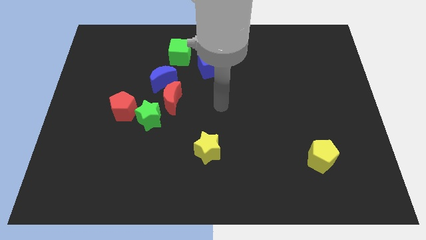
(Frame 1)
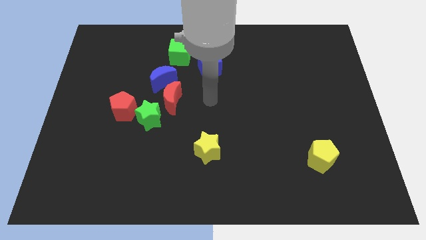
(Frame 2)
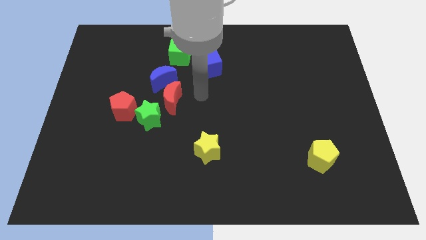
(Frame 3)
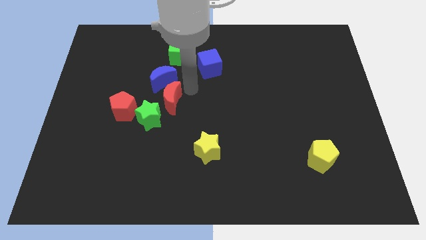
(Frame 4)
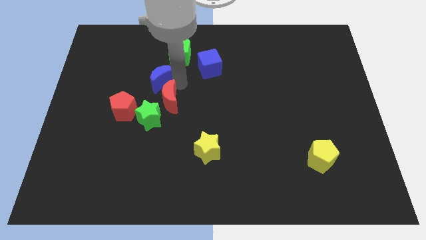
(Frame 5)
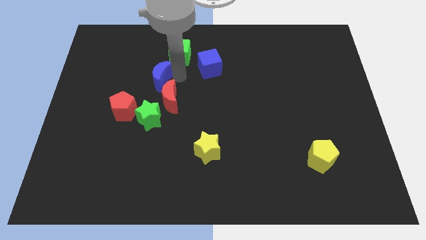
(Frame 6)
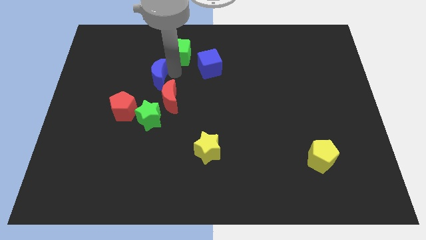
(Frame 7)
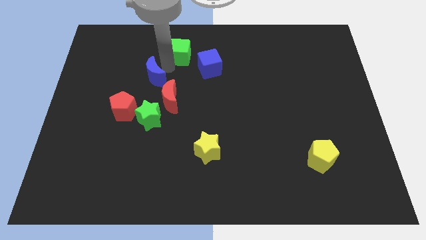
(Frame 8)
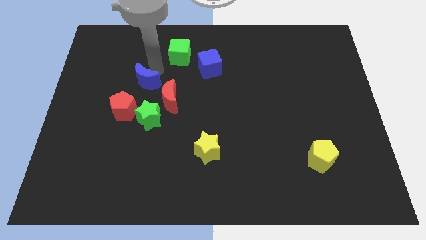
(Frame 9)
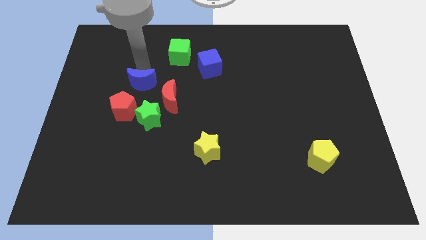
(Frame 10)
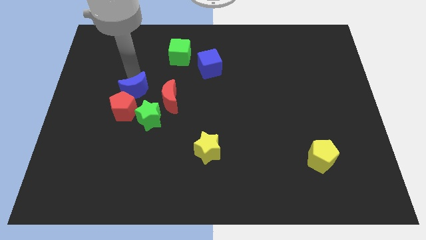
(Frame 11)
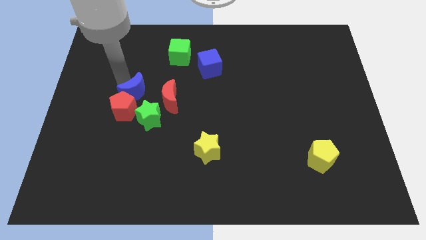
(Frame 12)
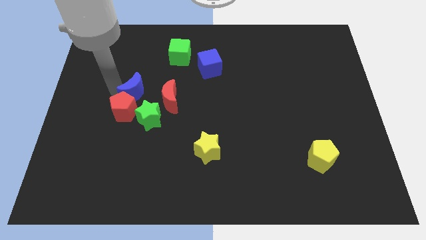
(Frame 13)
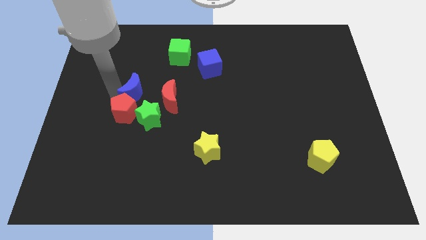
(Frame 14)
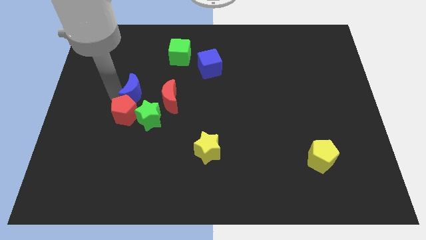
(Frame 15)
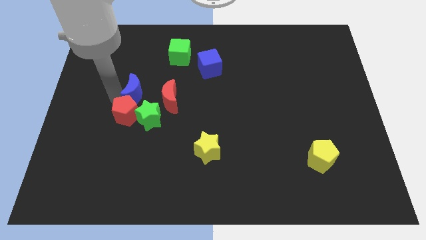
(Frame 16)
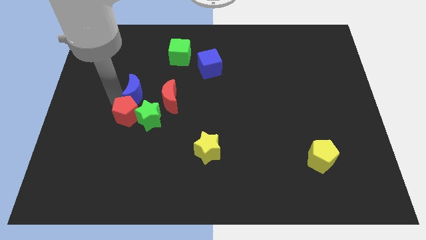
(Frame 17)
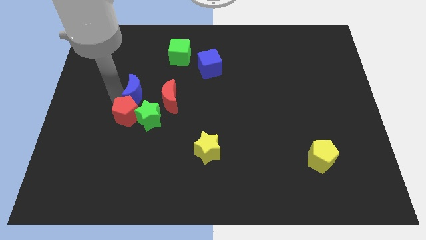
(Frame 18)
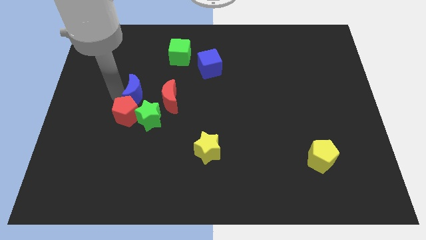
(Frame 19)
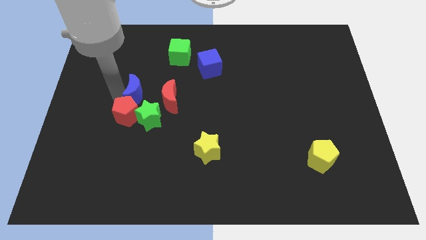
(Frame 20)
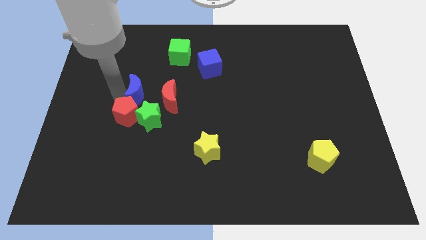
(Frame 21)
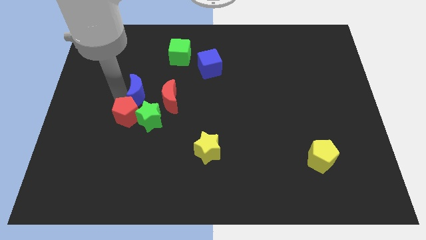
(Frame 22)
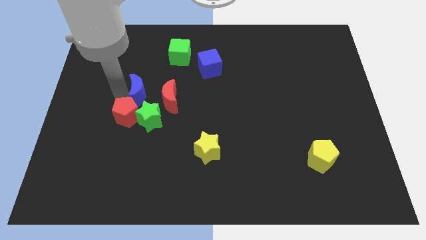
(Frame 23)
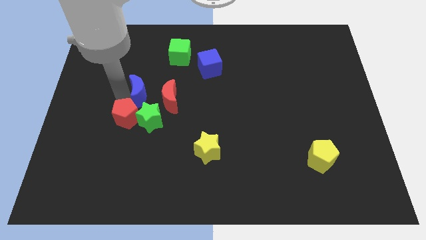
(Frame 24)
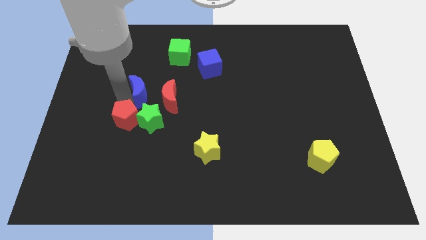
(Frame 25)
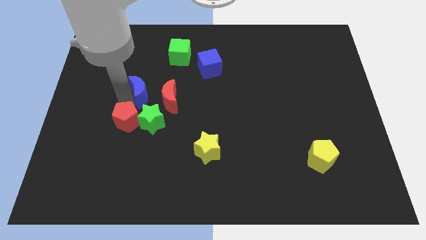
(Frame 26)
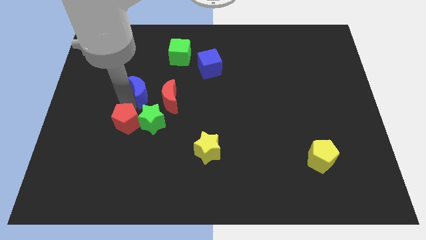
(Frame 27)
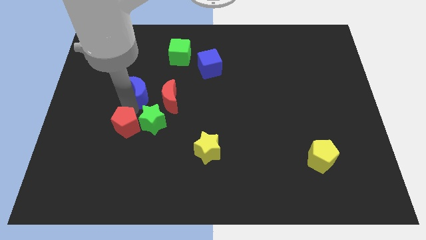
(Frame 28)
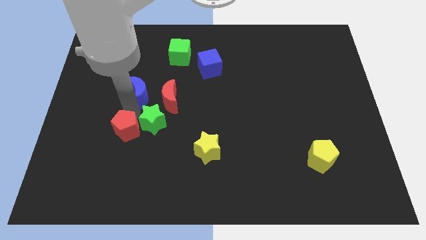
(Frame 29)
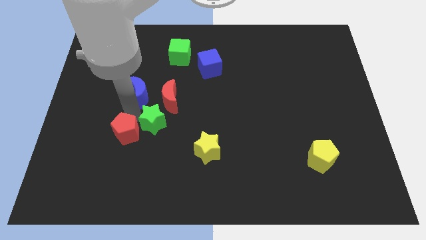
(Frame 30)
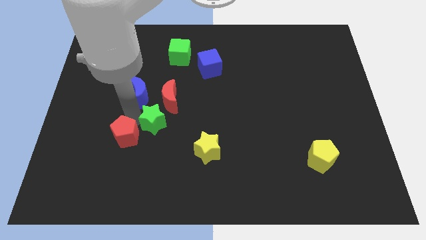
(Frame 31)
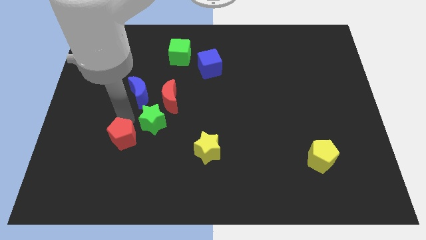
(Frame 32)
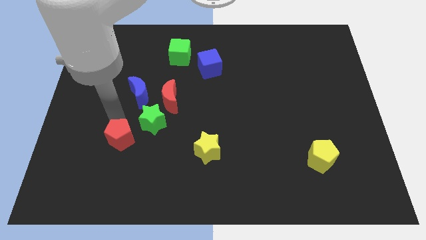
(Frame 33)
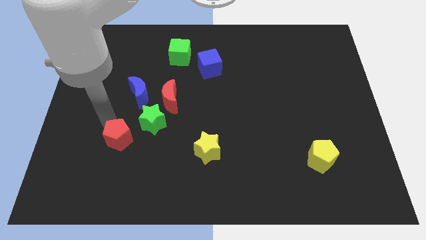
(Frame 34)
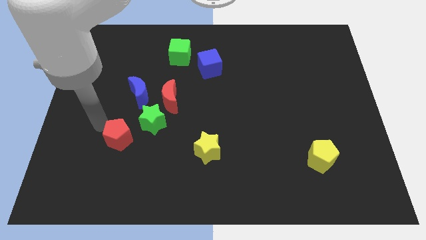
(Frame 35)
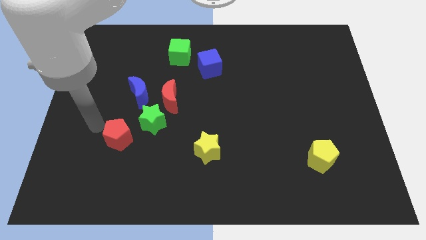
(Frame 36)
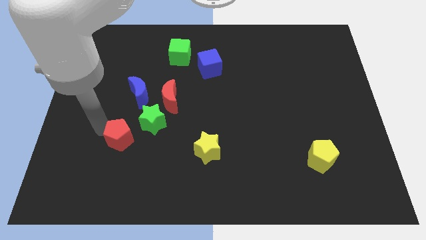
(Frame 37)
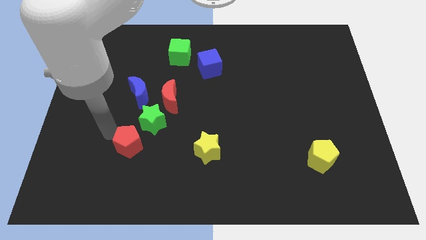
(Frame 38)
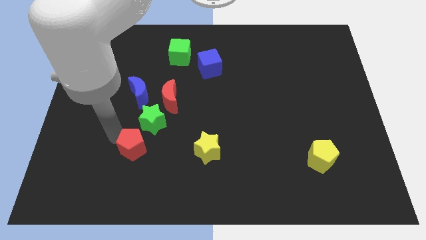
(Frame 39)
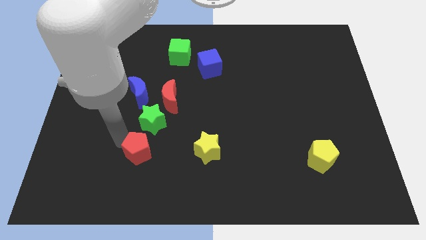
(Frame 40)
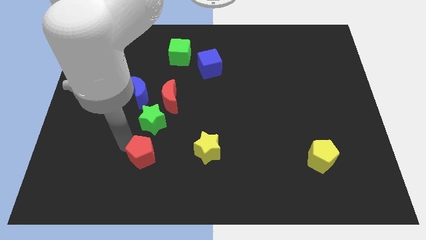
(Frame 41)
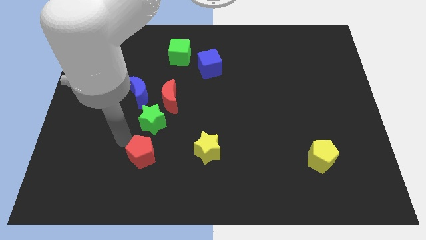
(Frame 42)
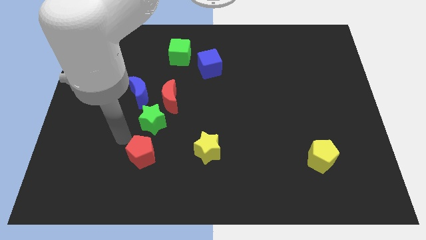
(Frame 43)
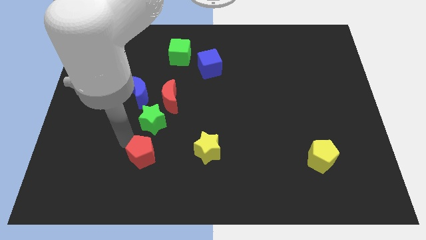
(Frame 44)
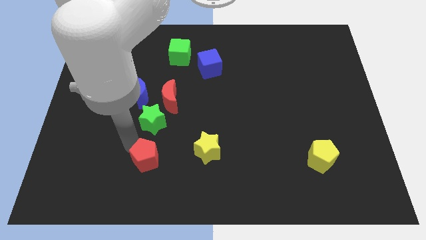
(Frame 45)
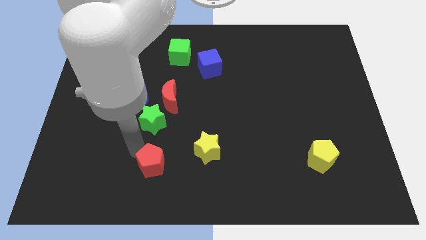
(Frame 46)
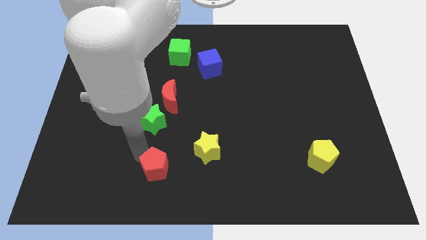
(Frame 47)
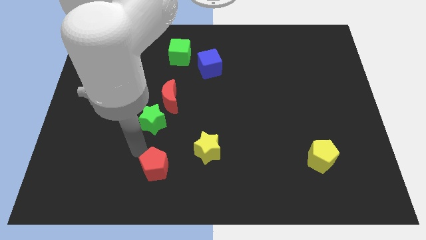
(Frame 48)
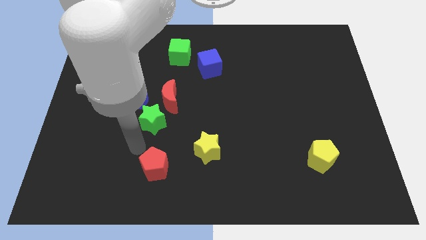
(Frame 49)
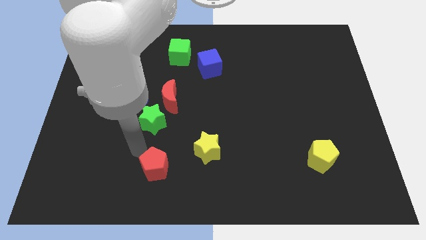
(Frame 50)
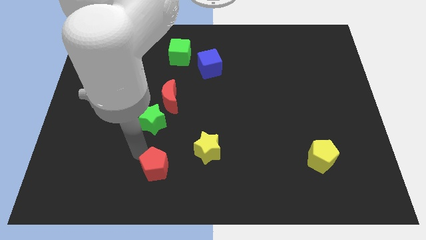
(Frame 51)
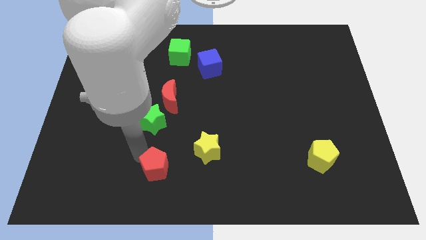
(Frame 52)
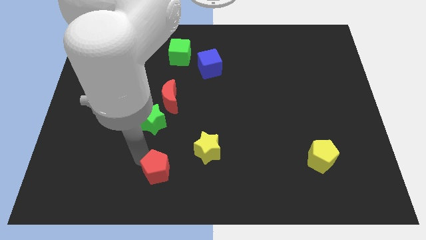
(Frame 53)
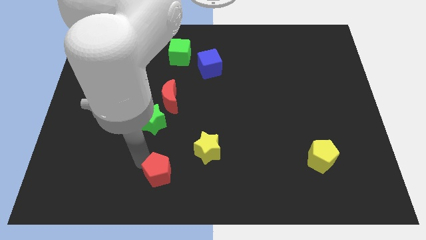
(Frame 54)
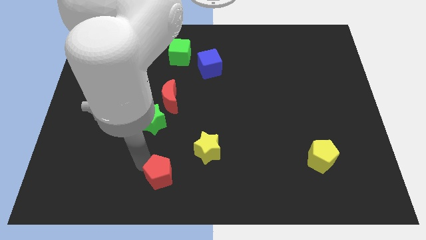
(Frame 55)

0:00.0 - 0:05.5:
move the red pentagon to the bottom side
